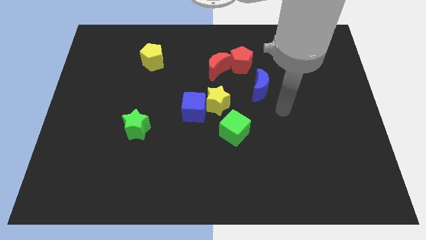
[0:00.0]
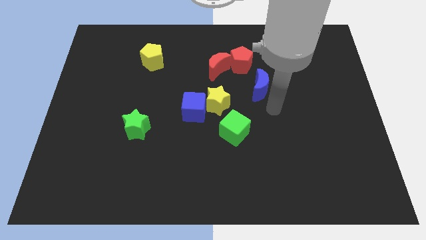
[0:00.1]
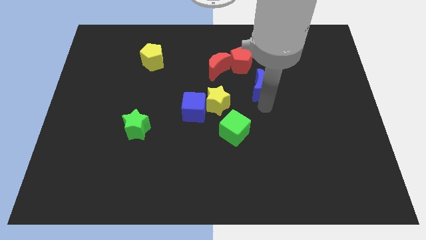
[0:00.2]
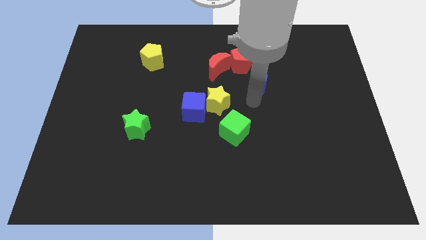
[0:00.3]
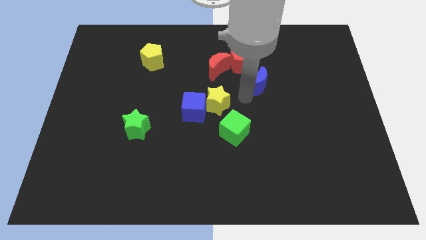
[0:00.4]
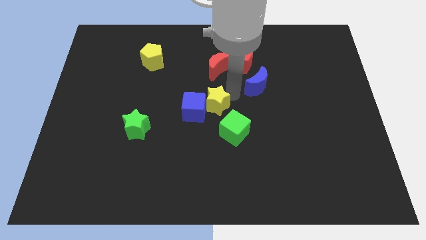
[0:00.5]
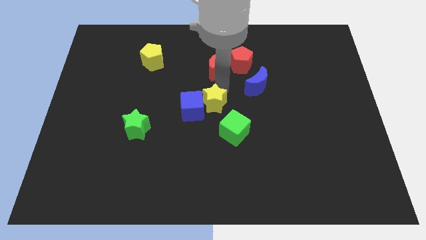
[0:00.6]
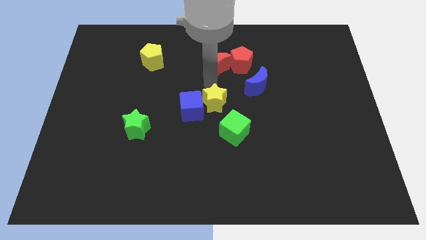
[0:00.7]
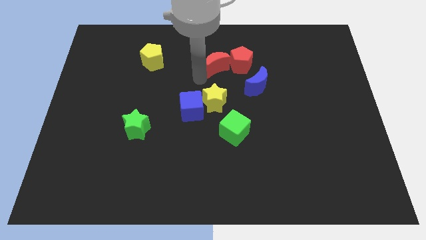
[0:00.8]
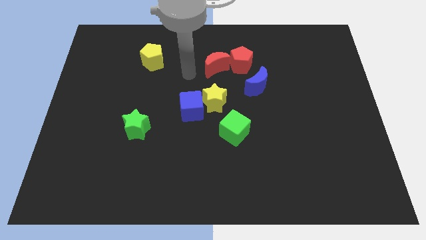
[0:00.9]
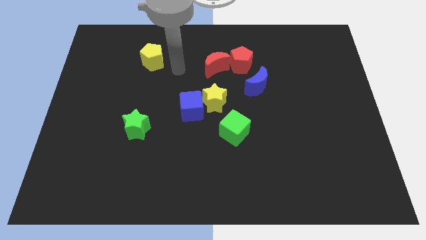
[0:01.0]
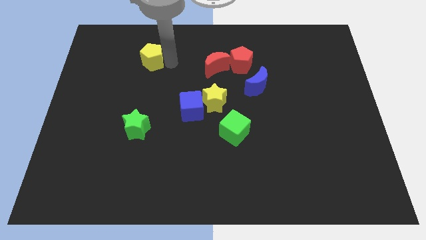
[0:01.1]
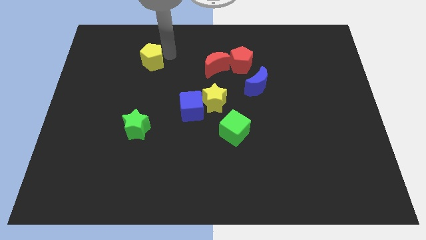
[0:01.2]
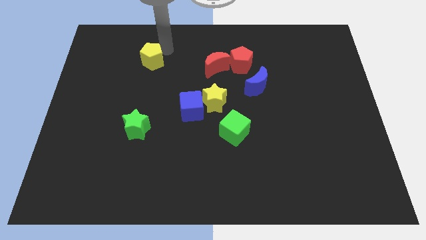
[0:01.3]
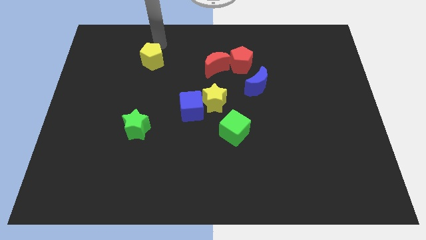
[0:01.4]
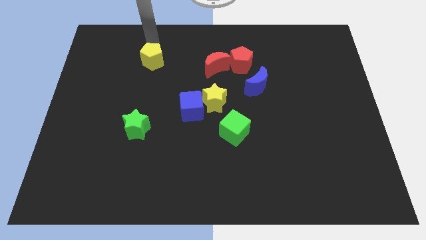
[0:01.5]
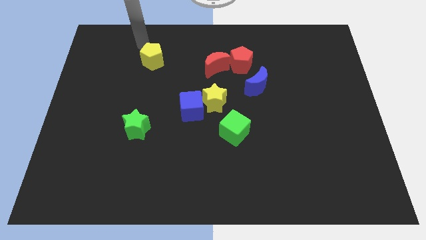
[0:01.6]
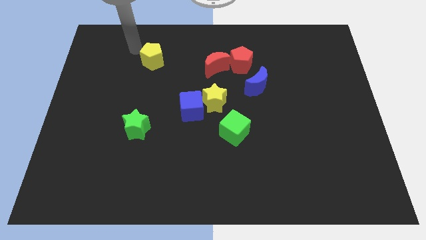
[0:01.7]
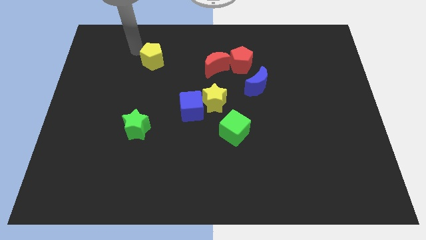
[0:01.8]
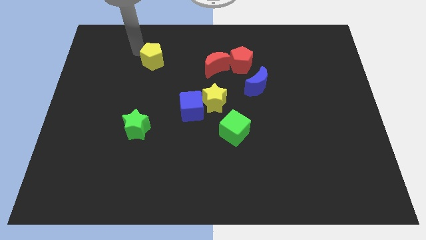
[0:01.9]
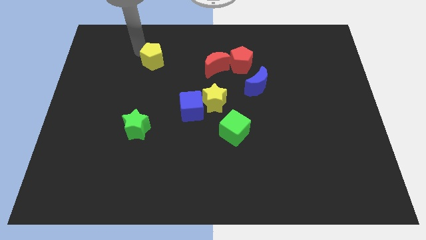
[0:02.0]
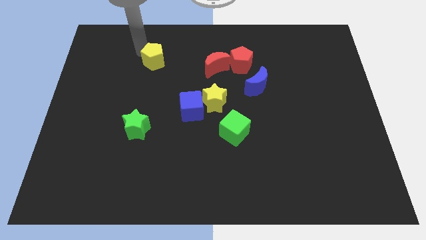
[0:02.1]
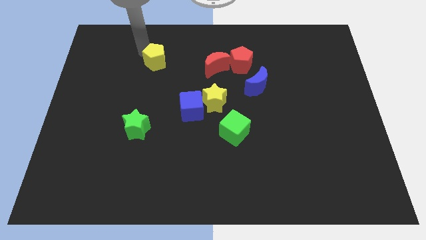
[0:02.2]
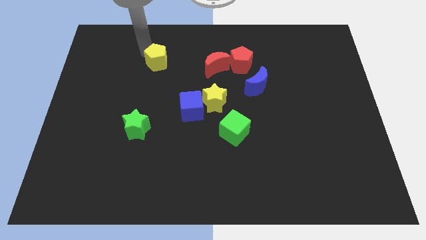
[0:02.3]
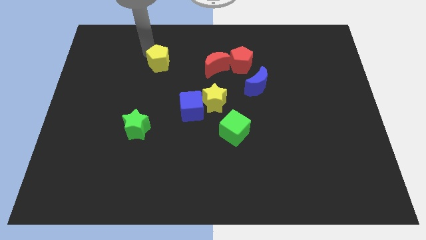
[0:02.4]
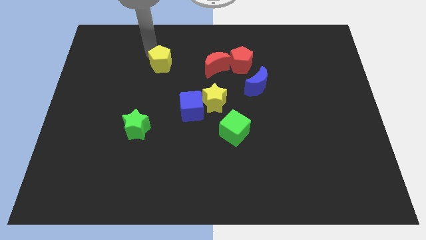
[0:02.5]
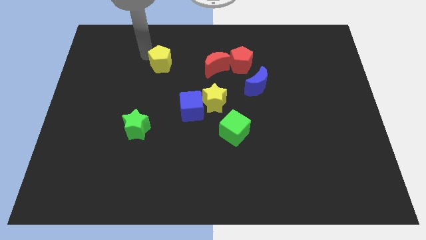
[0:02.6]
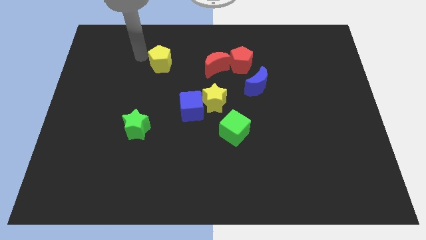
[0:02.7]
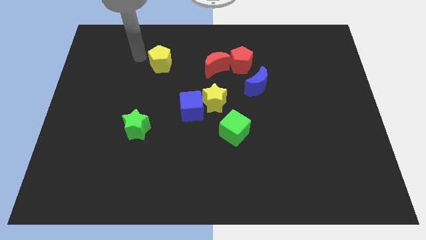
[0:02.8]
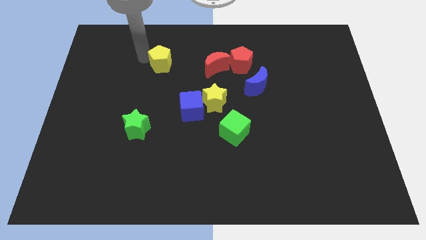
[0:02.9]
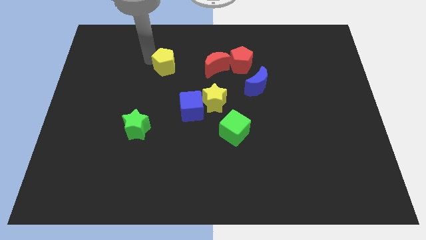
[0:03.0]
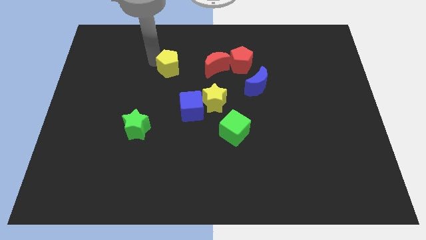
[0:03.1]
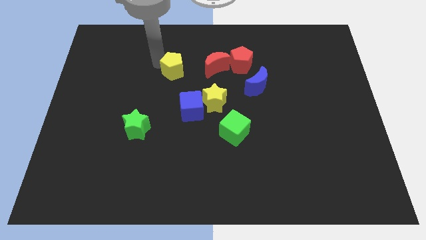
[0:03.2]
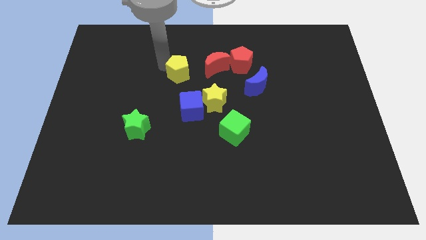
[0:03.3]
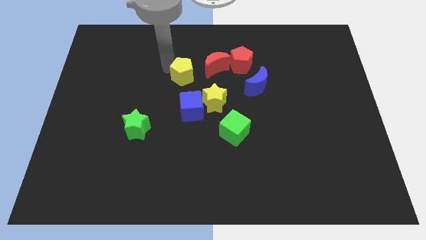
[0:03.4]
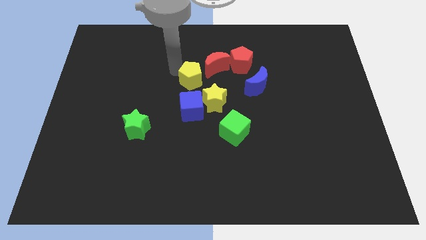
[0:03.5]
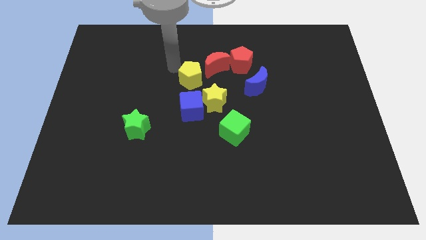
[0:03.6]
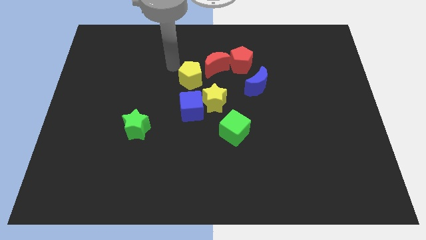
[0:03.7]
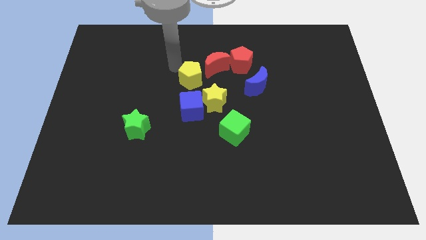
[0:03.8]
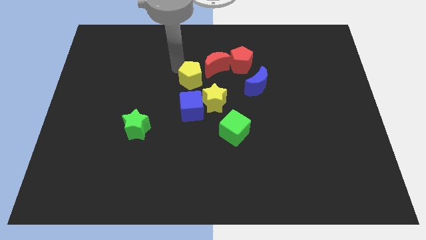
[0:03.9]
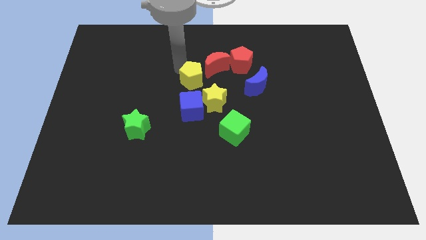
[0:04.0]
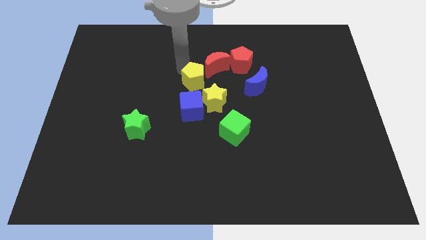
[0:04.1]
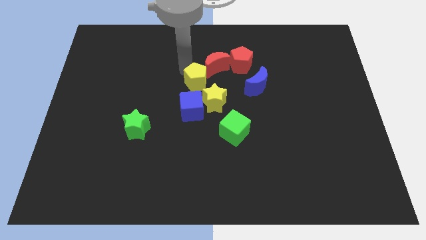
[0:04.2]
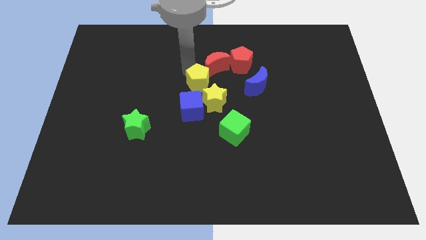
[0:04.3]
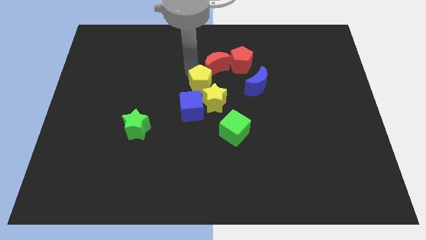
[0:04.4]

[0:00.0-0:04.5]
put the yellow pentagon to the top right of the blue cube

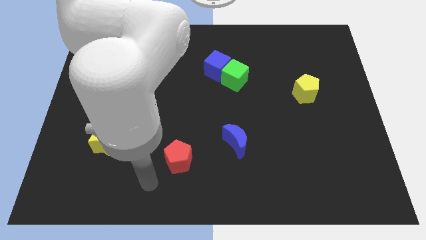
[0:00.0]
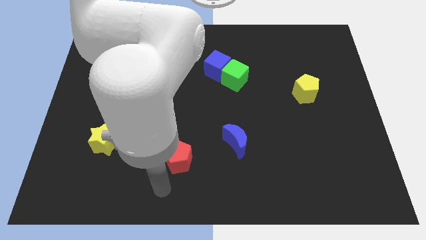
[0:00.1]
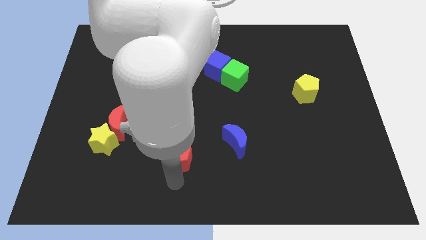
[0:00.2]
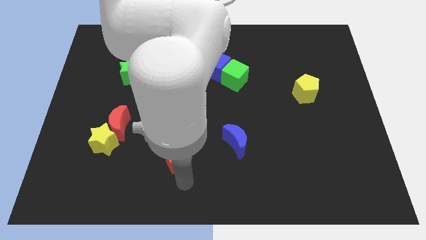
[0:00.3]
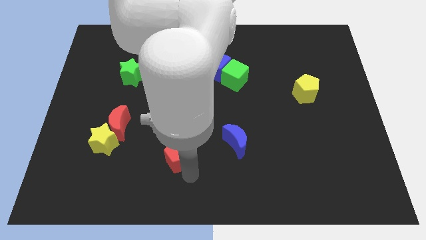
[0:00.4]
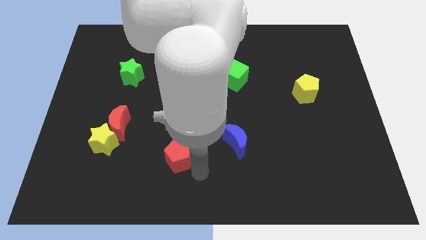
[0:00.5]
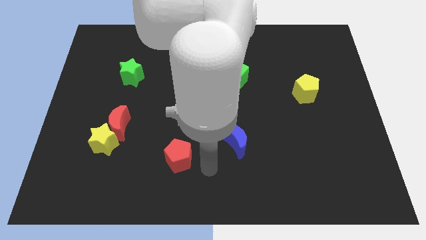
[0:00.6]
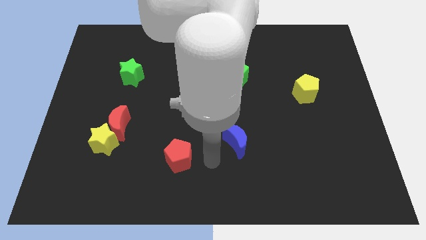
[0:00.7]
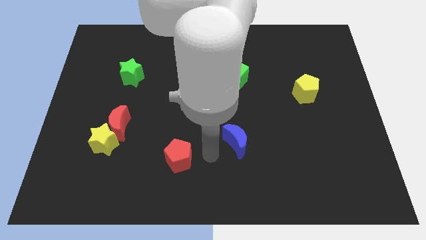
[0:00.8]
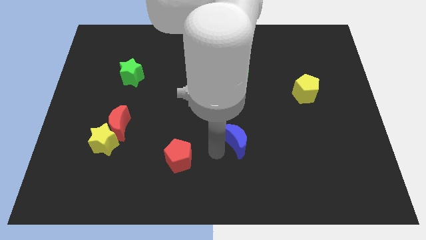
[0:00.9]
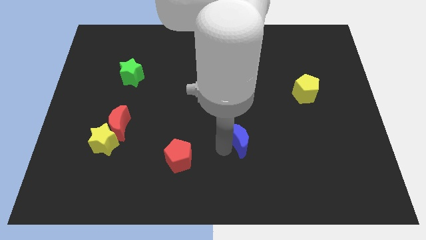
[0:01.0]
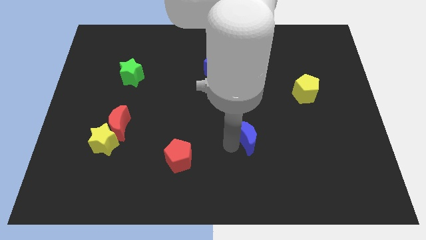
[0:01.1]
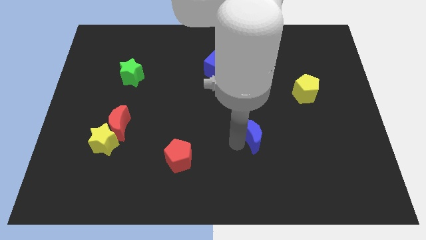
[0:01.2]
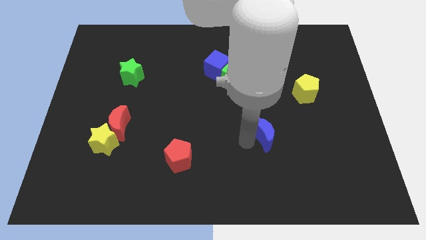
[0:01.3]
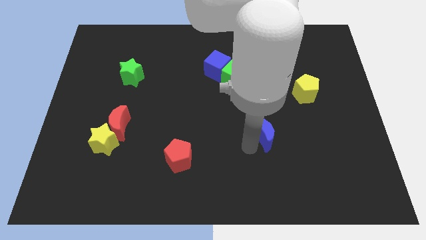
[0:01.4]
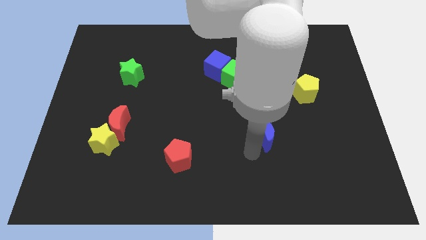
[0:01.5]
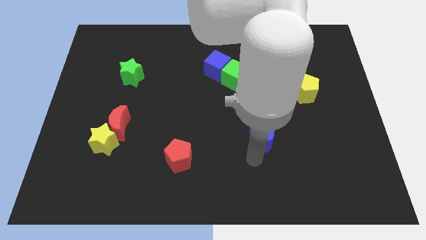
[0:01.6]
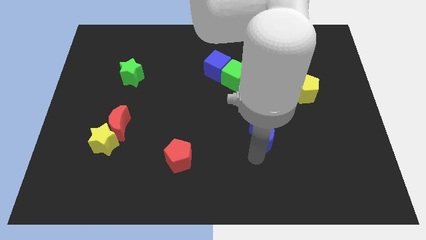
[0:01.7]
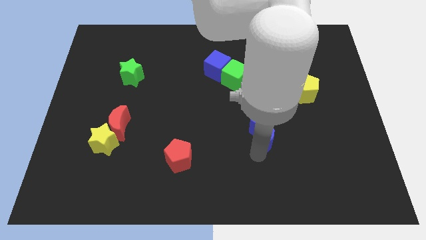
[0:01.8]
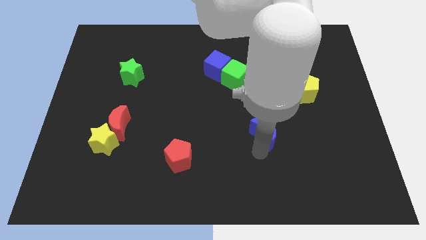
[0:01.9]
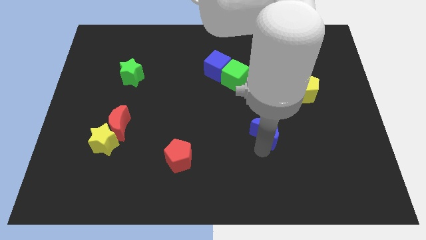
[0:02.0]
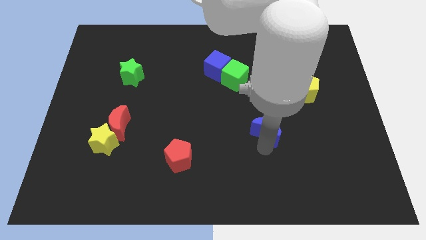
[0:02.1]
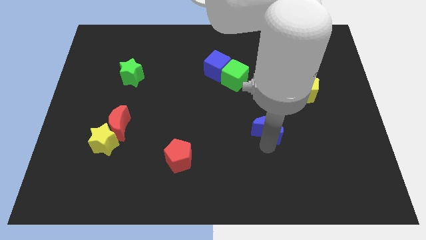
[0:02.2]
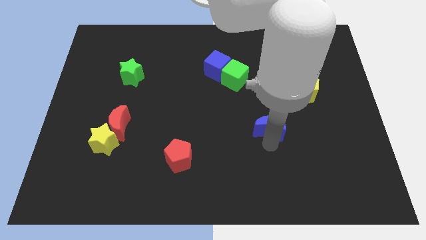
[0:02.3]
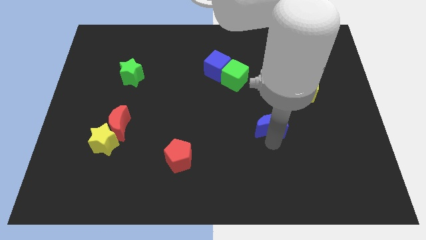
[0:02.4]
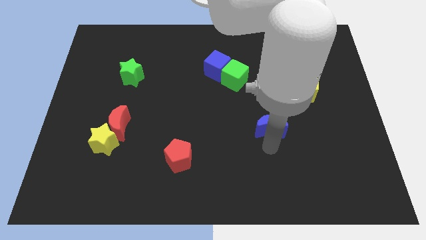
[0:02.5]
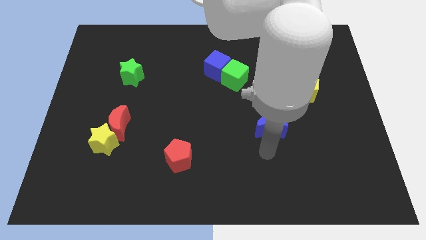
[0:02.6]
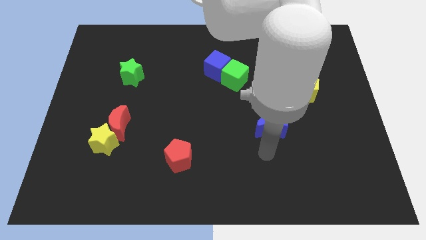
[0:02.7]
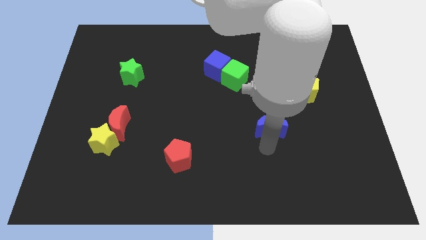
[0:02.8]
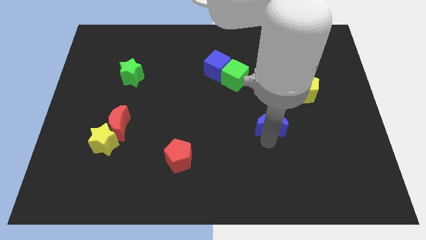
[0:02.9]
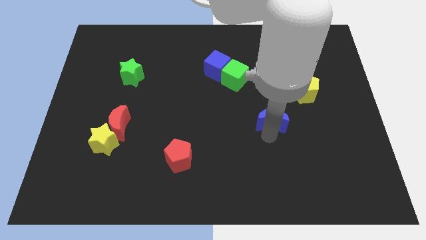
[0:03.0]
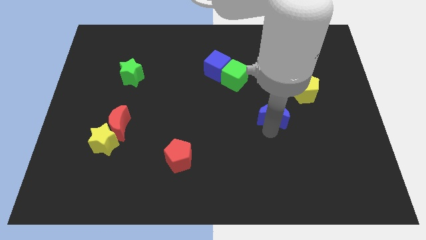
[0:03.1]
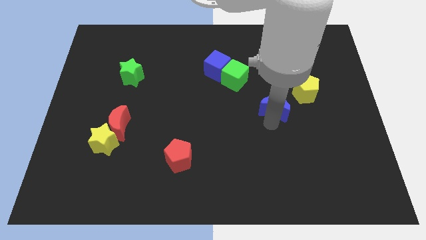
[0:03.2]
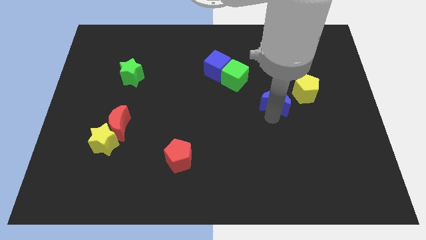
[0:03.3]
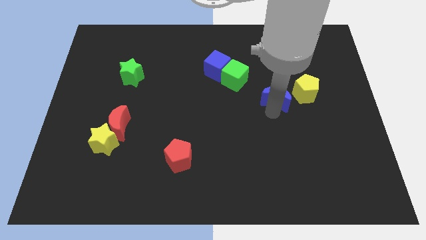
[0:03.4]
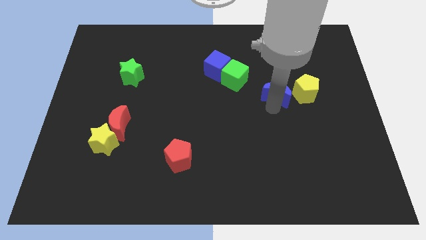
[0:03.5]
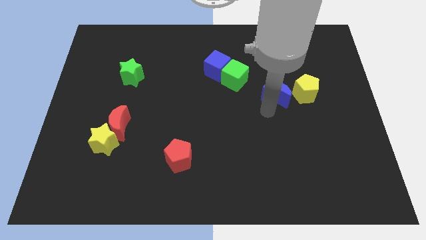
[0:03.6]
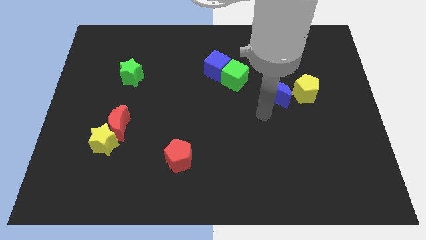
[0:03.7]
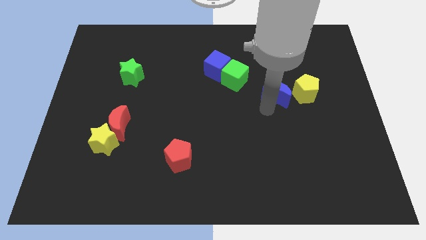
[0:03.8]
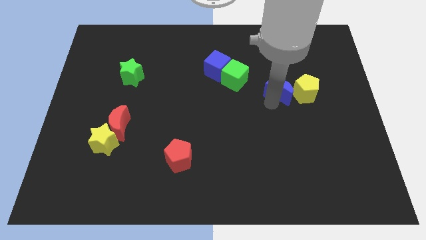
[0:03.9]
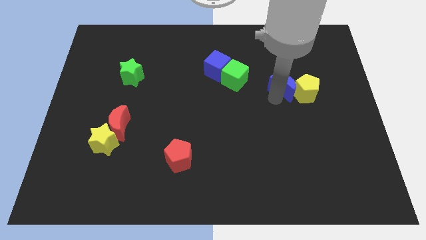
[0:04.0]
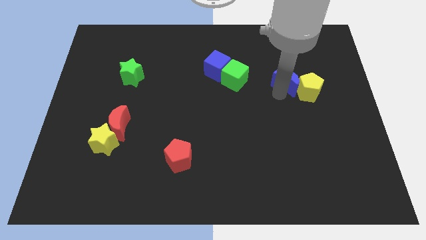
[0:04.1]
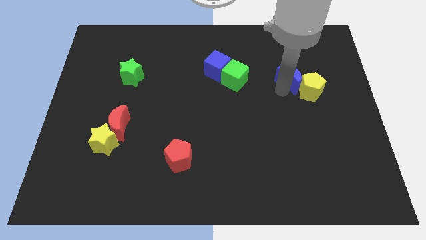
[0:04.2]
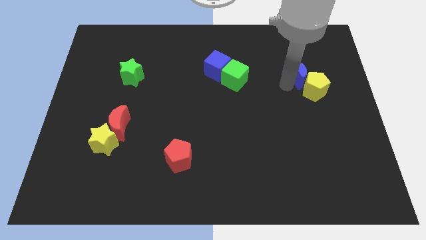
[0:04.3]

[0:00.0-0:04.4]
push the blue moon to the top of the yellow pentagon
